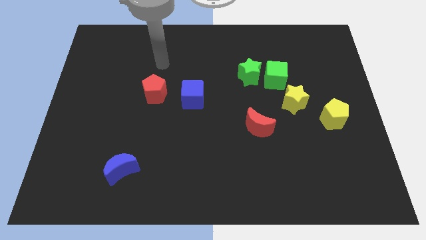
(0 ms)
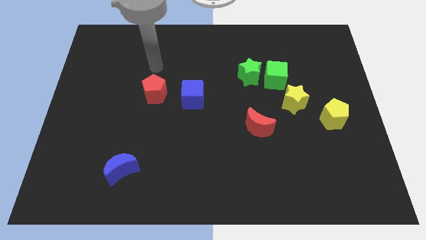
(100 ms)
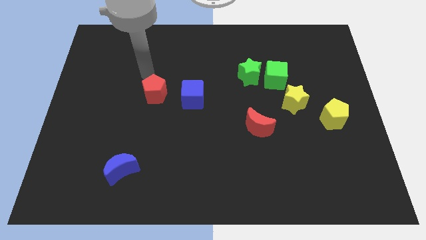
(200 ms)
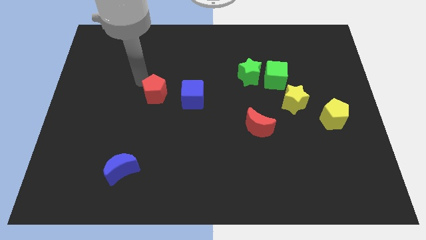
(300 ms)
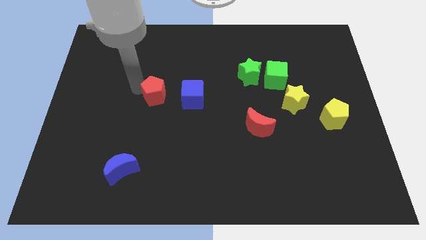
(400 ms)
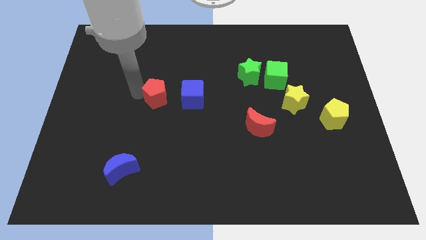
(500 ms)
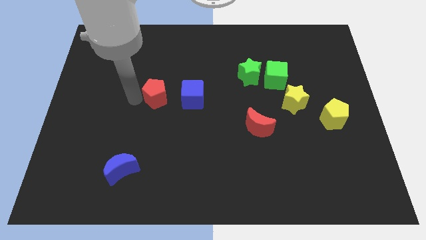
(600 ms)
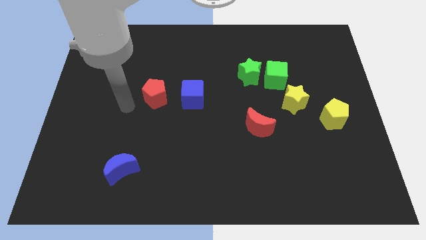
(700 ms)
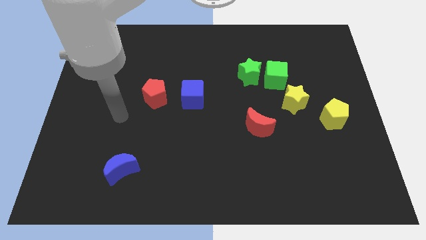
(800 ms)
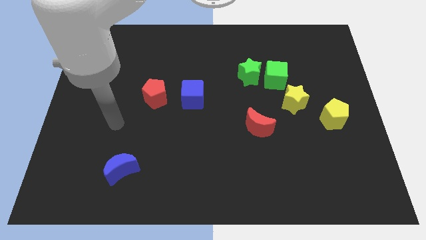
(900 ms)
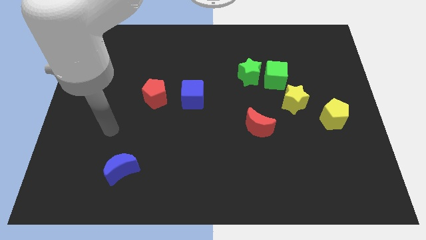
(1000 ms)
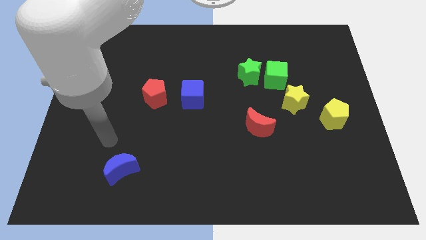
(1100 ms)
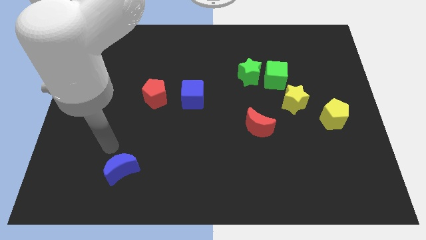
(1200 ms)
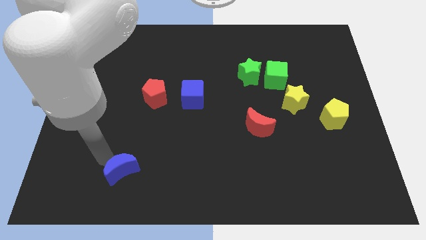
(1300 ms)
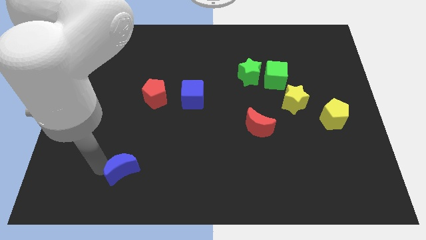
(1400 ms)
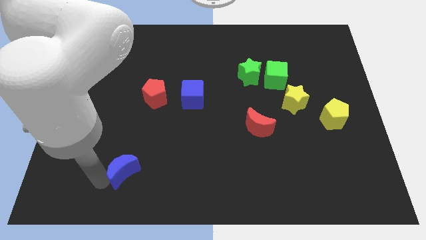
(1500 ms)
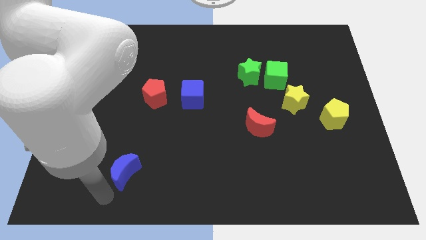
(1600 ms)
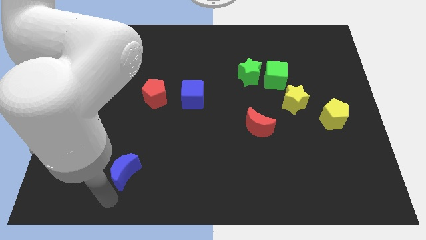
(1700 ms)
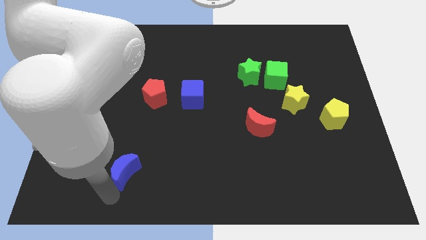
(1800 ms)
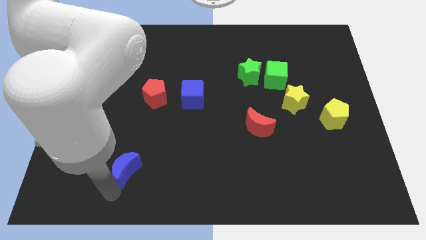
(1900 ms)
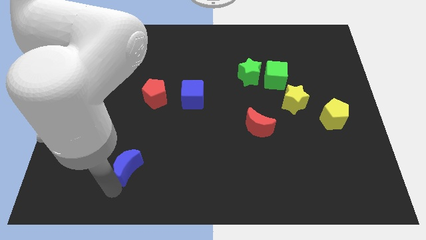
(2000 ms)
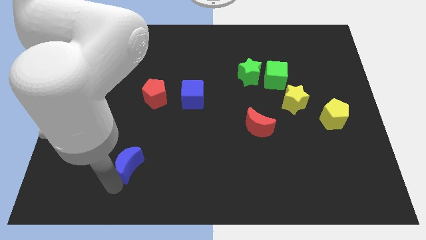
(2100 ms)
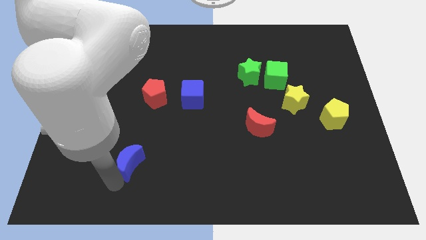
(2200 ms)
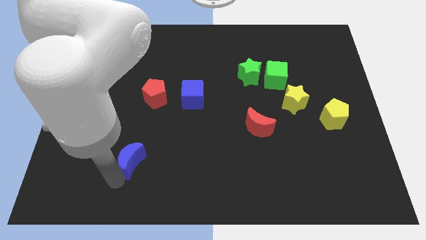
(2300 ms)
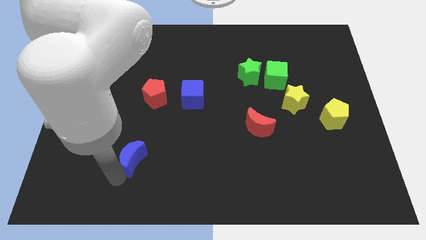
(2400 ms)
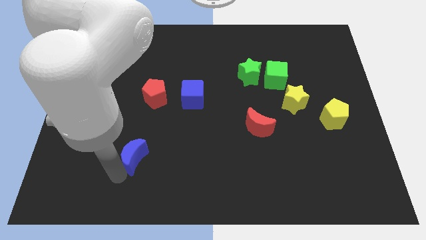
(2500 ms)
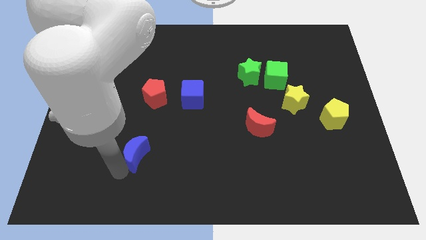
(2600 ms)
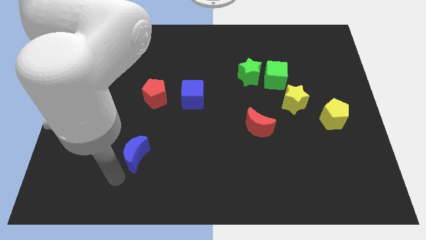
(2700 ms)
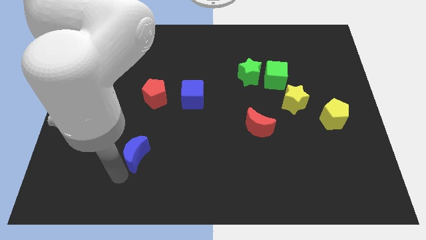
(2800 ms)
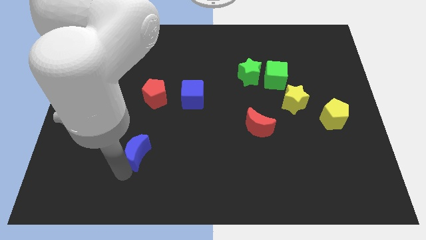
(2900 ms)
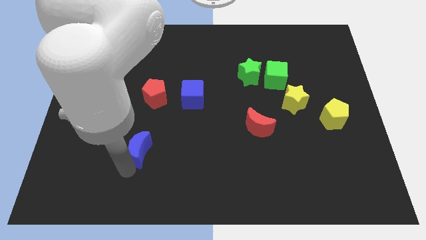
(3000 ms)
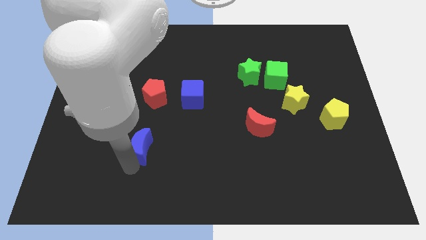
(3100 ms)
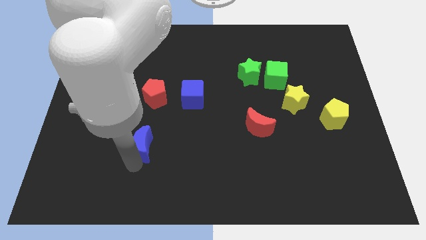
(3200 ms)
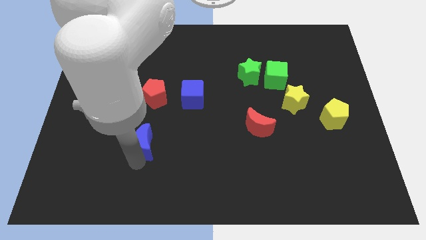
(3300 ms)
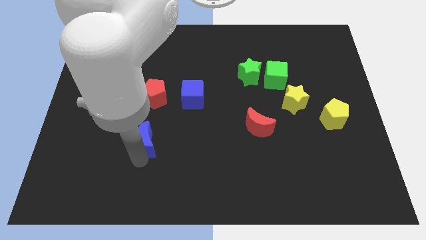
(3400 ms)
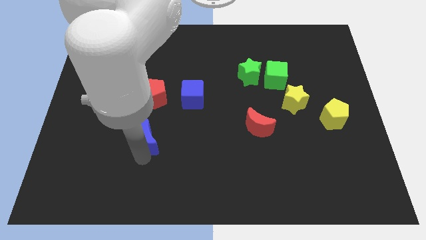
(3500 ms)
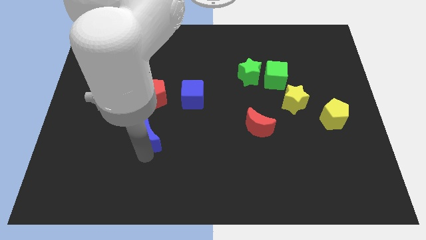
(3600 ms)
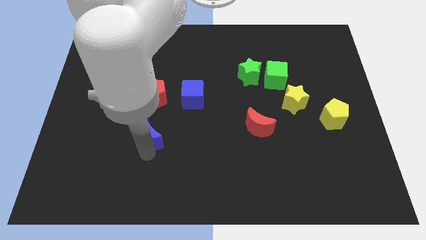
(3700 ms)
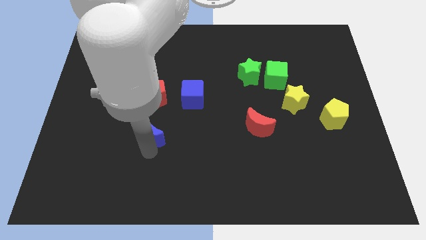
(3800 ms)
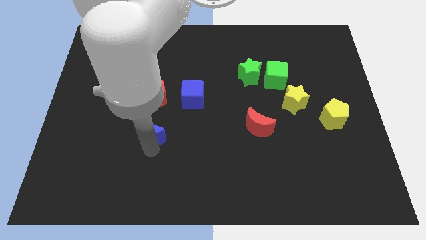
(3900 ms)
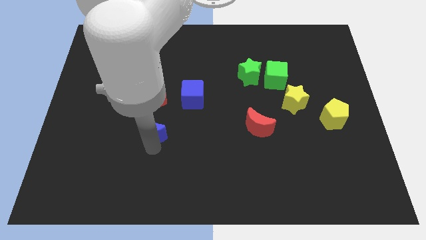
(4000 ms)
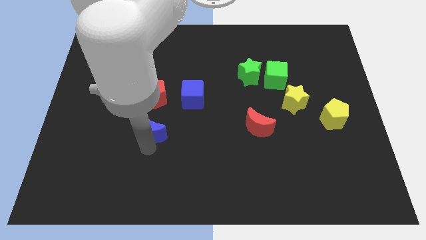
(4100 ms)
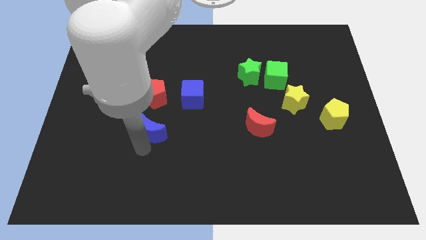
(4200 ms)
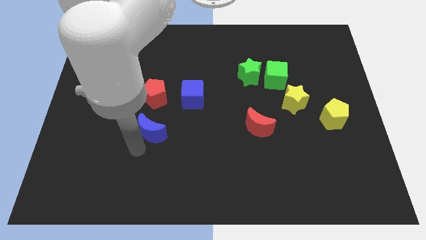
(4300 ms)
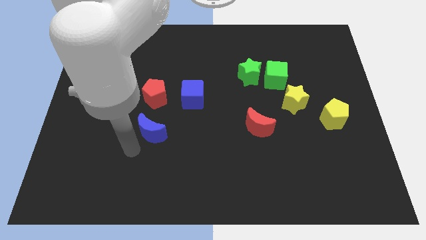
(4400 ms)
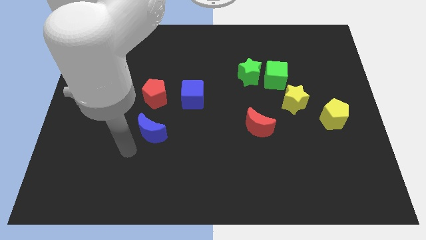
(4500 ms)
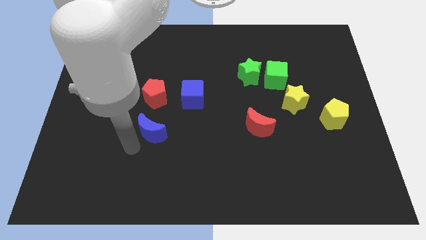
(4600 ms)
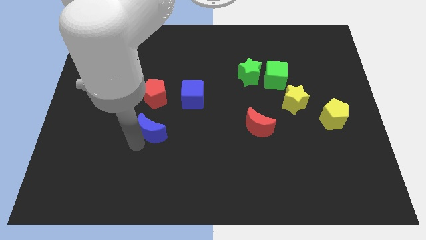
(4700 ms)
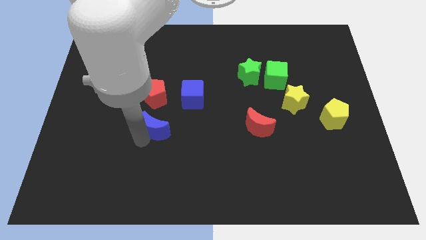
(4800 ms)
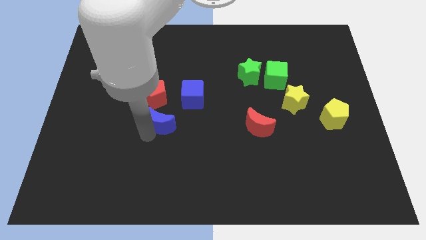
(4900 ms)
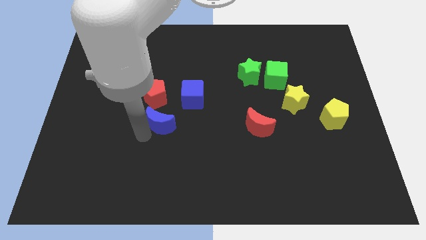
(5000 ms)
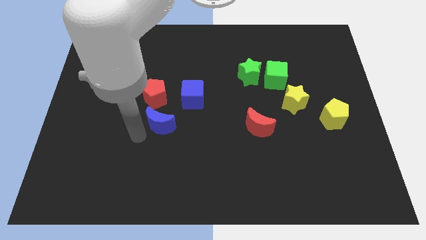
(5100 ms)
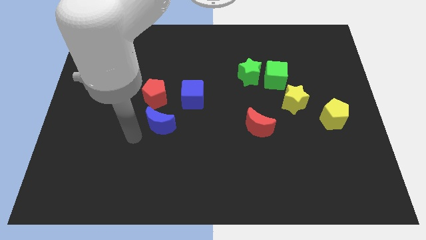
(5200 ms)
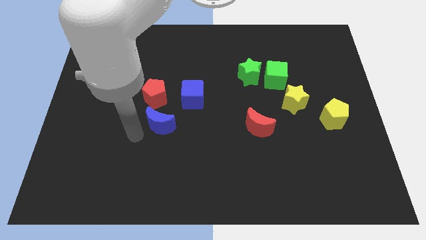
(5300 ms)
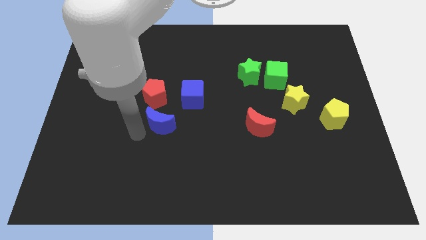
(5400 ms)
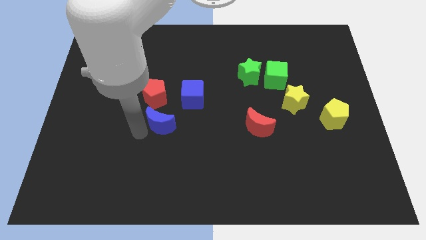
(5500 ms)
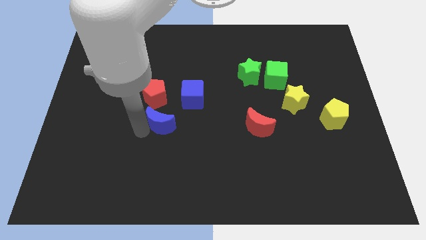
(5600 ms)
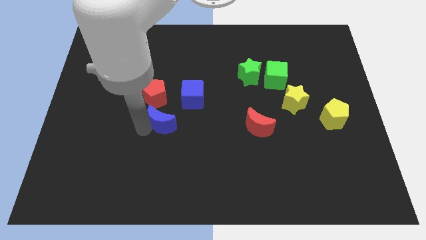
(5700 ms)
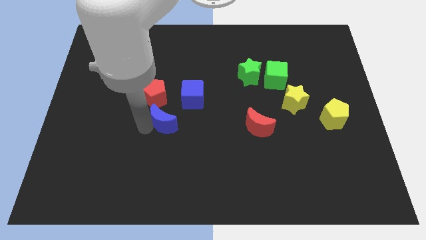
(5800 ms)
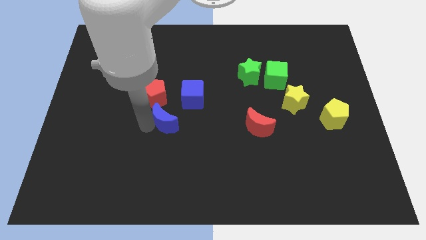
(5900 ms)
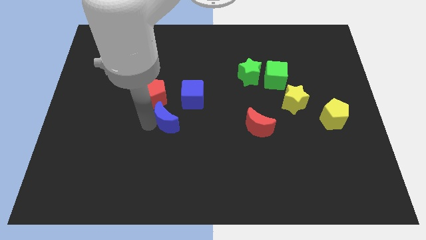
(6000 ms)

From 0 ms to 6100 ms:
move the blue moon to the center

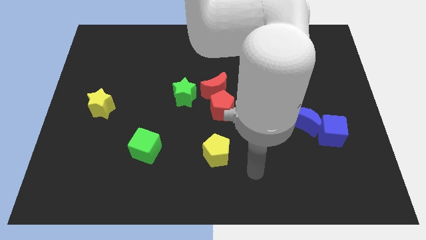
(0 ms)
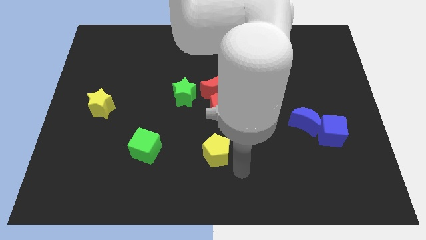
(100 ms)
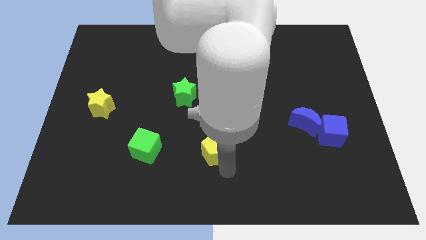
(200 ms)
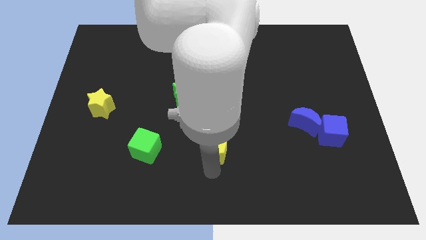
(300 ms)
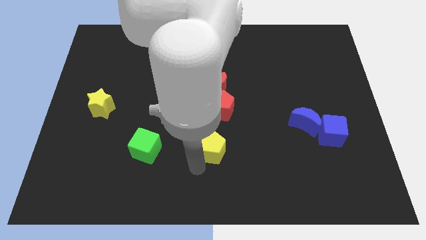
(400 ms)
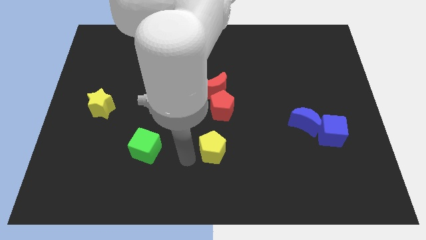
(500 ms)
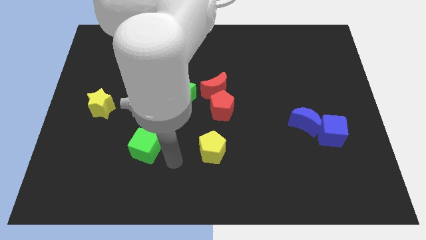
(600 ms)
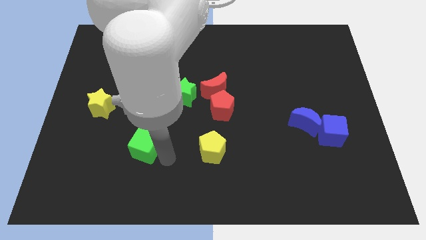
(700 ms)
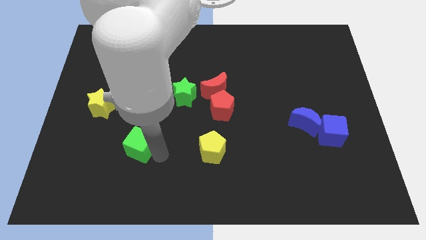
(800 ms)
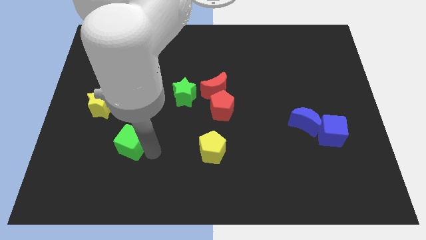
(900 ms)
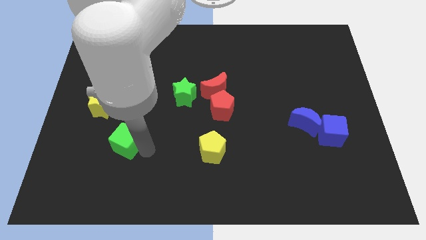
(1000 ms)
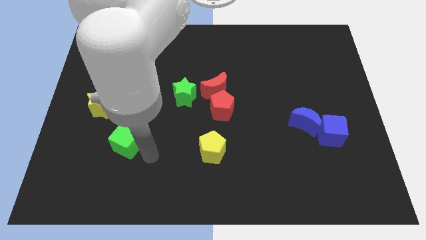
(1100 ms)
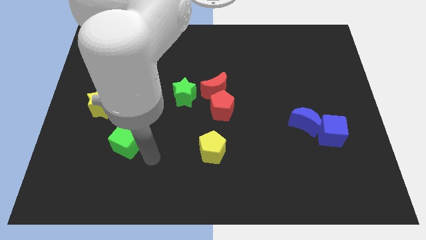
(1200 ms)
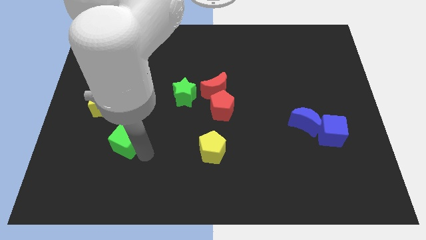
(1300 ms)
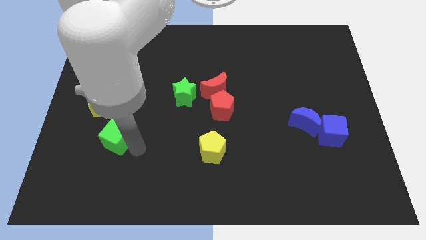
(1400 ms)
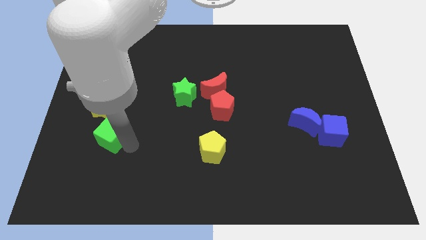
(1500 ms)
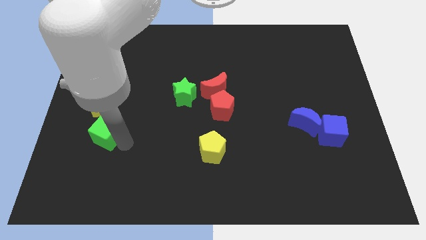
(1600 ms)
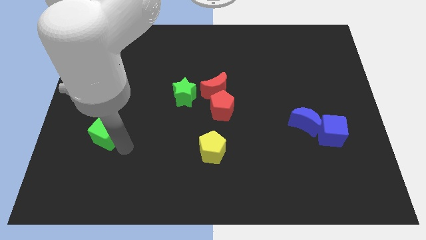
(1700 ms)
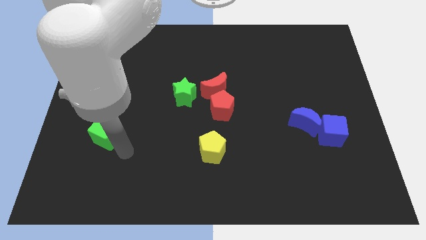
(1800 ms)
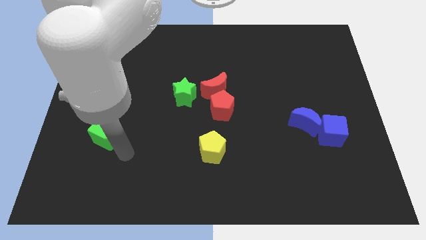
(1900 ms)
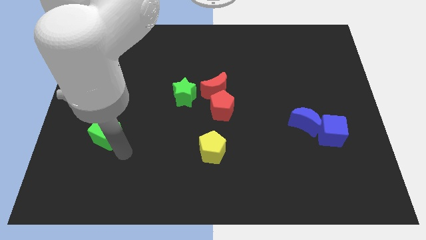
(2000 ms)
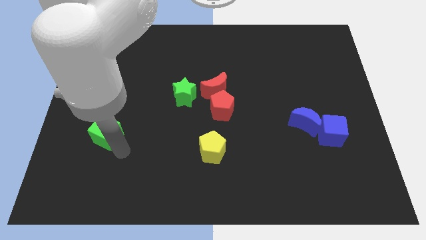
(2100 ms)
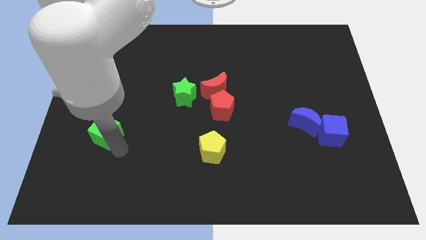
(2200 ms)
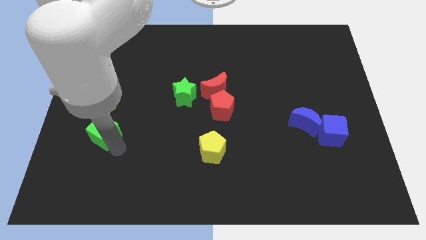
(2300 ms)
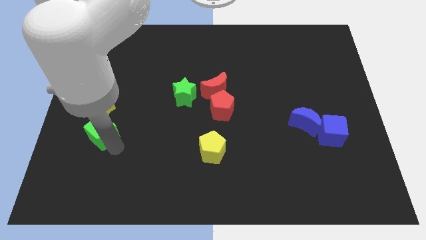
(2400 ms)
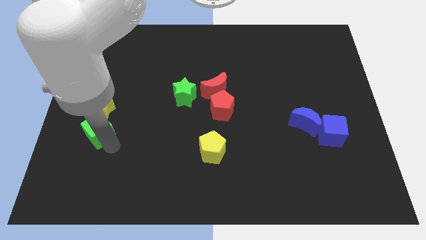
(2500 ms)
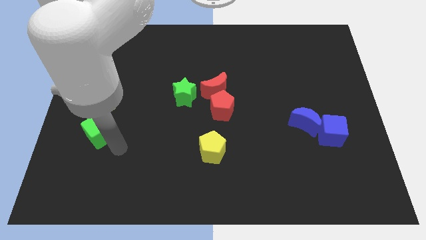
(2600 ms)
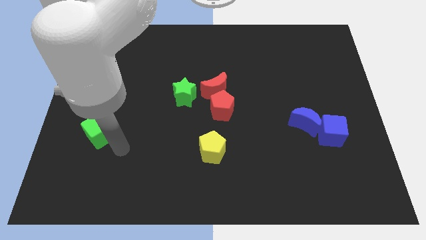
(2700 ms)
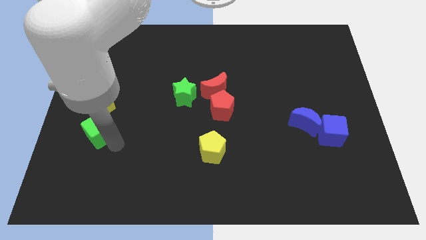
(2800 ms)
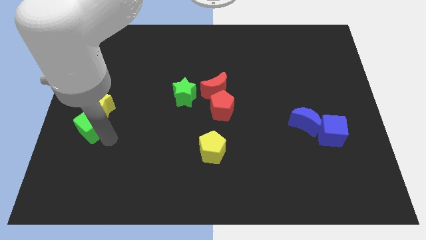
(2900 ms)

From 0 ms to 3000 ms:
push the green cube to the left side of the board
